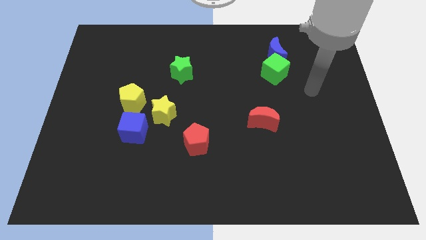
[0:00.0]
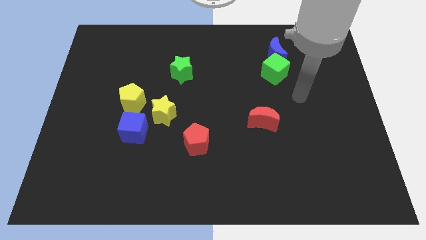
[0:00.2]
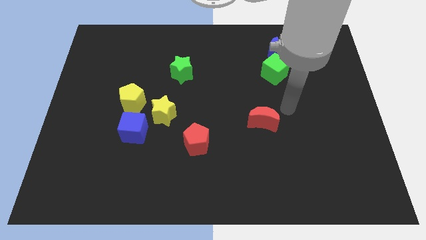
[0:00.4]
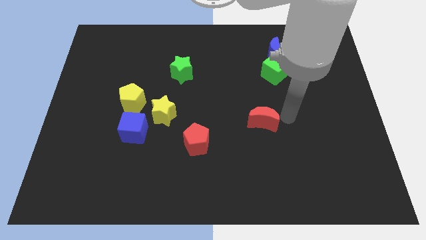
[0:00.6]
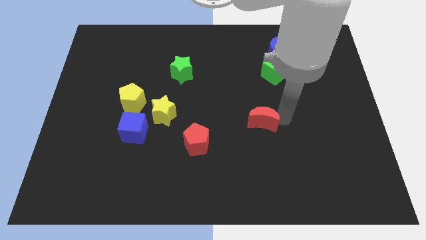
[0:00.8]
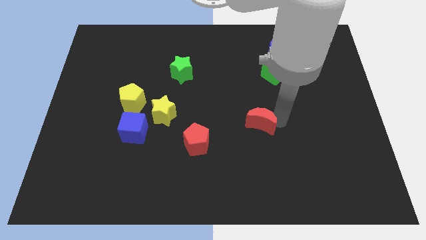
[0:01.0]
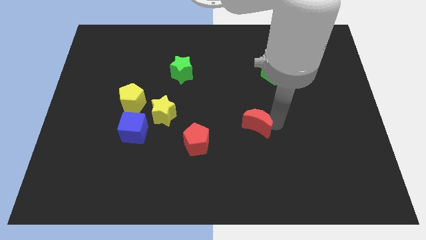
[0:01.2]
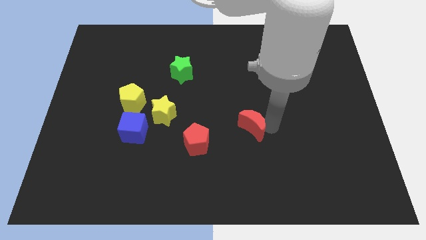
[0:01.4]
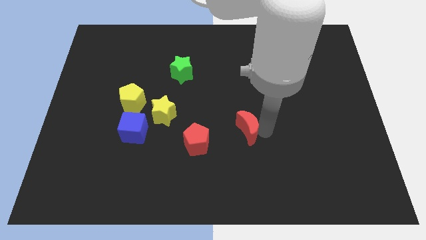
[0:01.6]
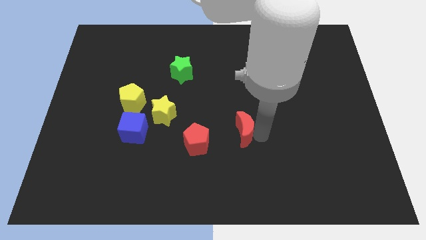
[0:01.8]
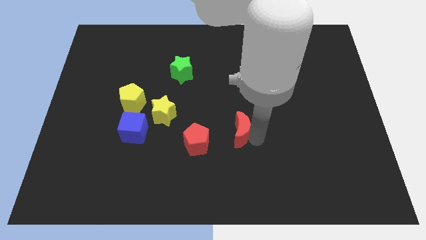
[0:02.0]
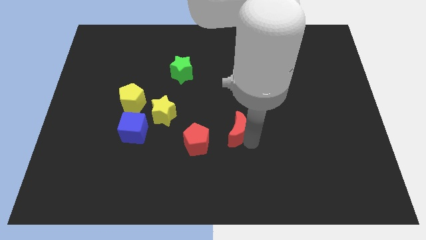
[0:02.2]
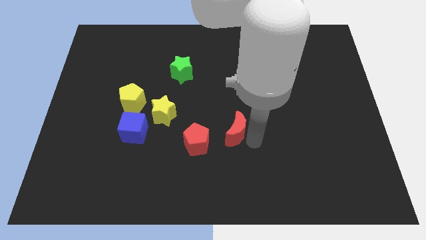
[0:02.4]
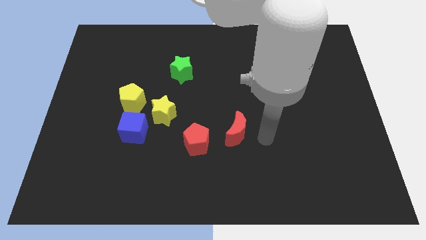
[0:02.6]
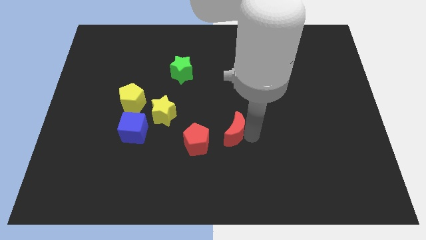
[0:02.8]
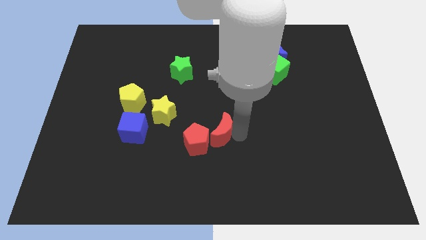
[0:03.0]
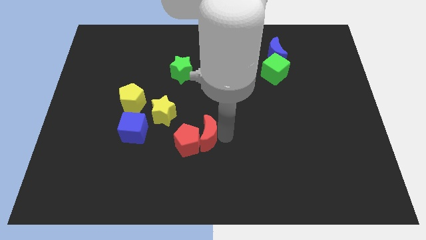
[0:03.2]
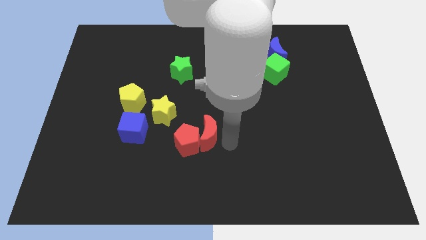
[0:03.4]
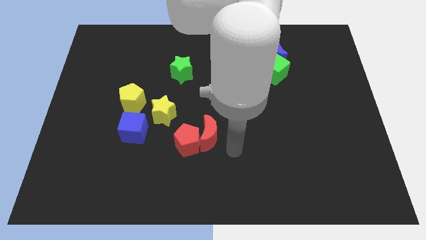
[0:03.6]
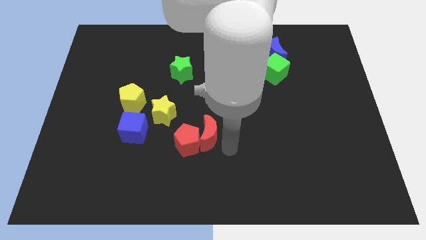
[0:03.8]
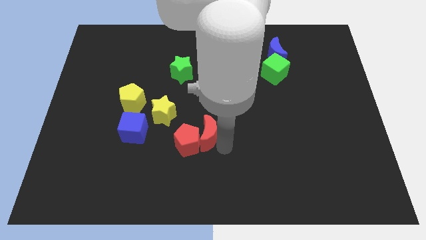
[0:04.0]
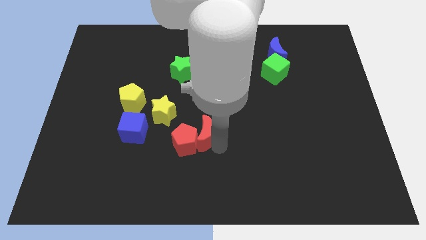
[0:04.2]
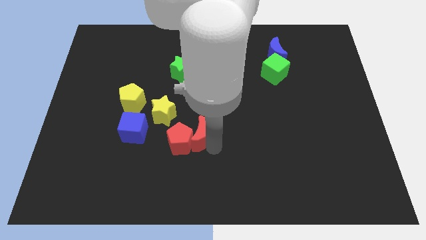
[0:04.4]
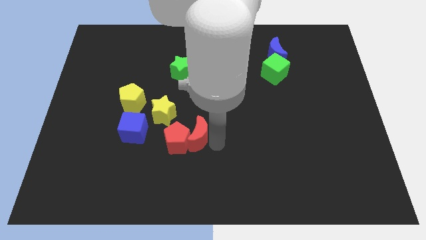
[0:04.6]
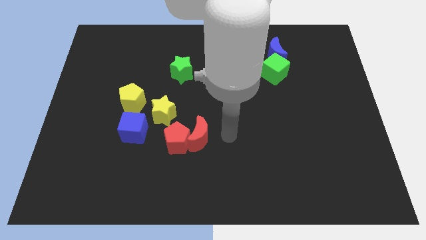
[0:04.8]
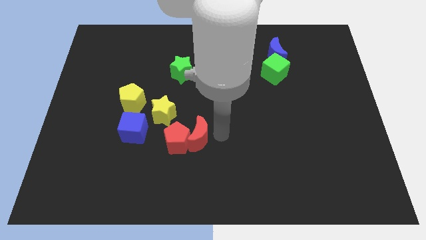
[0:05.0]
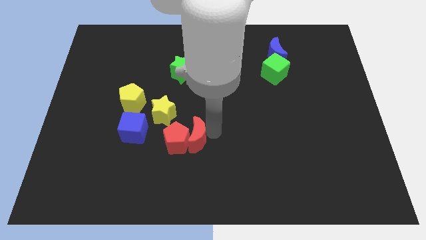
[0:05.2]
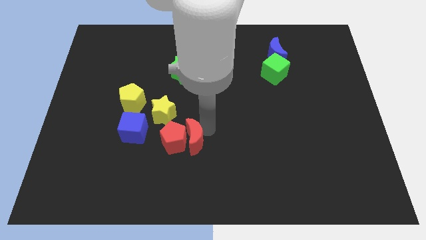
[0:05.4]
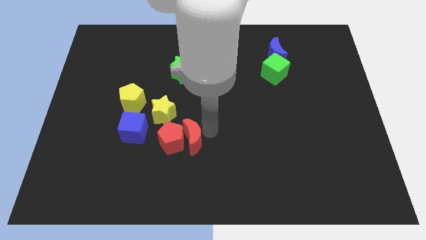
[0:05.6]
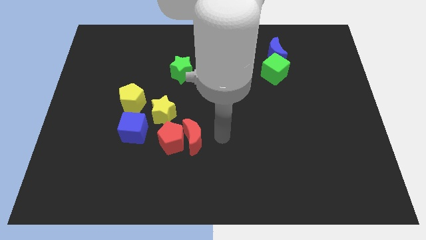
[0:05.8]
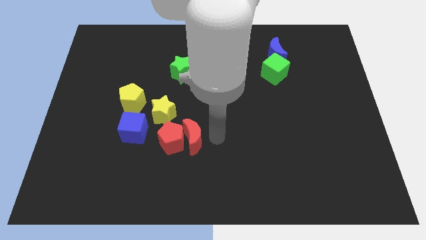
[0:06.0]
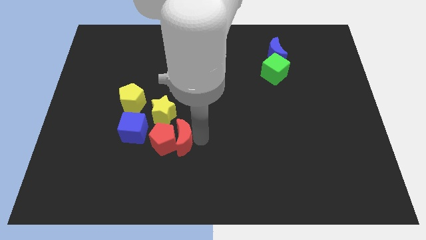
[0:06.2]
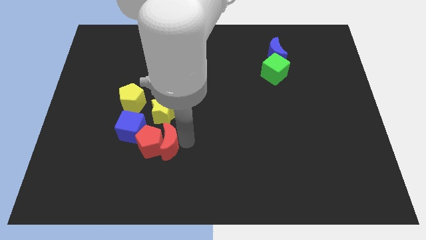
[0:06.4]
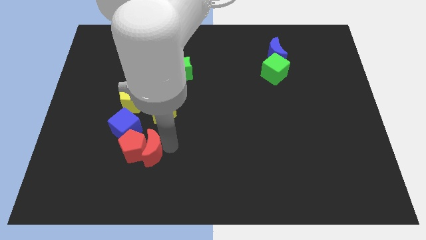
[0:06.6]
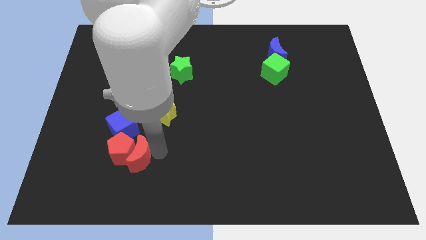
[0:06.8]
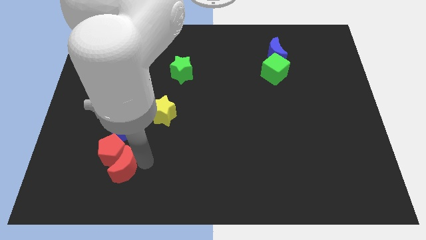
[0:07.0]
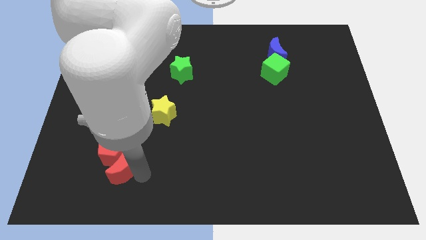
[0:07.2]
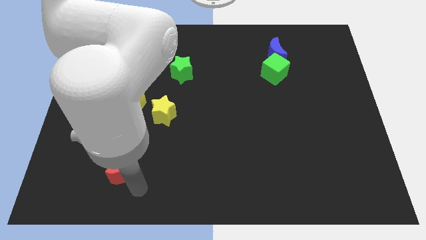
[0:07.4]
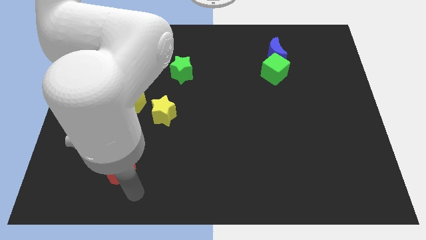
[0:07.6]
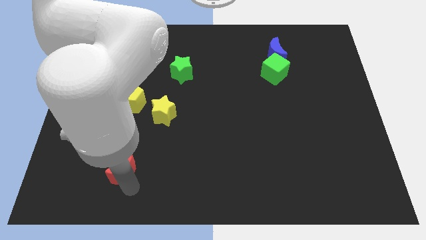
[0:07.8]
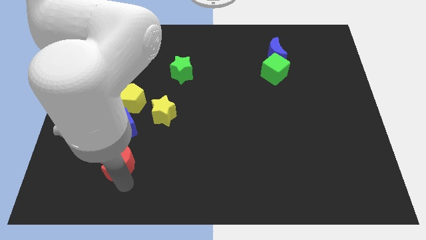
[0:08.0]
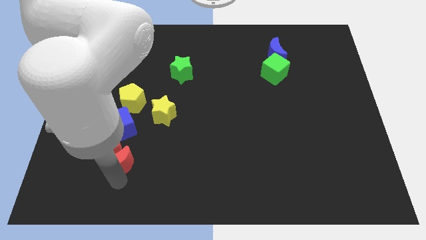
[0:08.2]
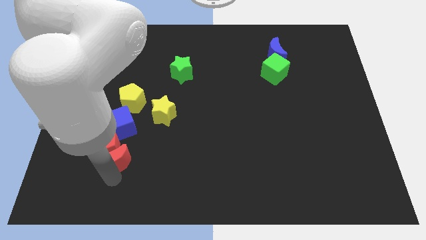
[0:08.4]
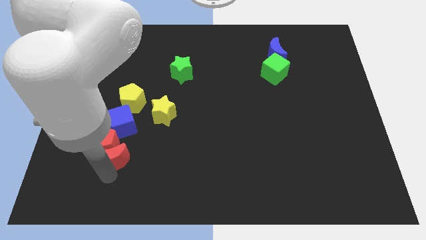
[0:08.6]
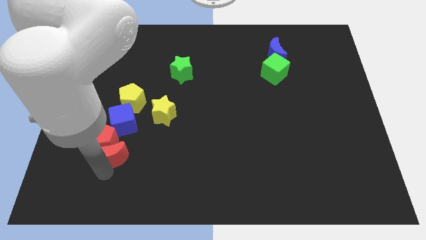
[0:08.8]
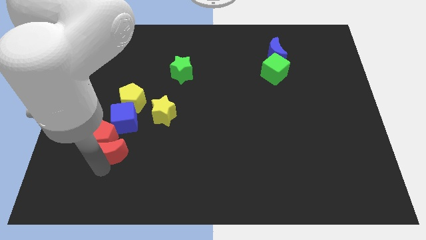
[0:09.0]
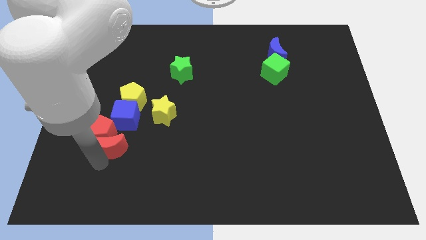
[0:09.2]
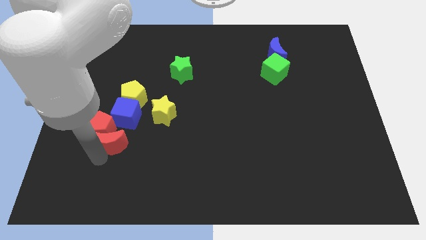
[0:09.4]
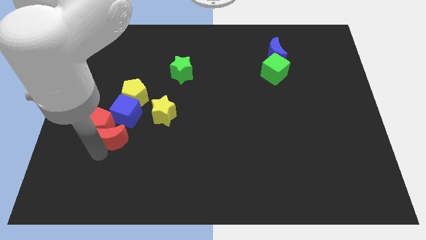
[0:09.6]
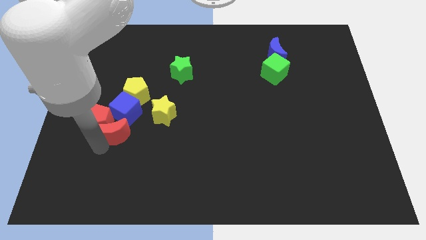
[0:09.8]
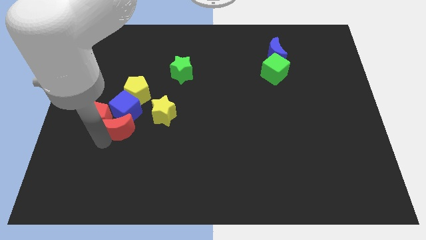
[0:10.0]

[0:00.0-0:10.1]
put the red moon to the left side of the yellow star

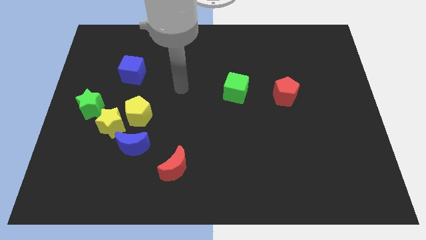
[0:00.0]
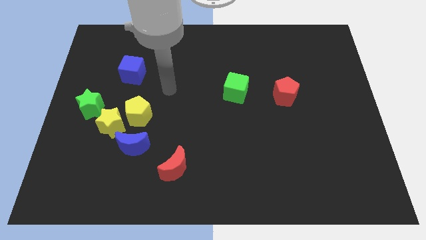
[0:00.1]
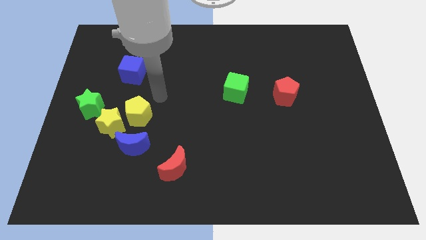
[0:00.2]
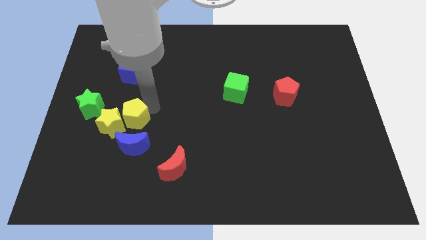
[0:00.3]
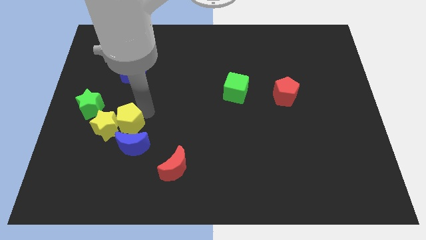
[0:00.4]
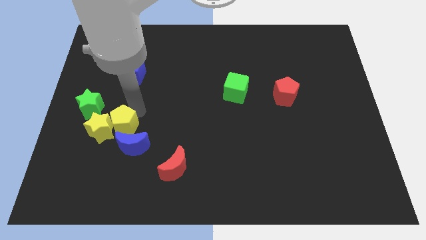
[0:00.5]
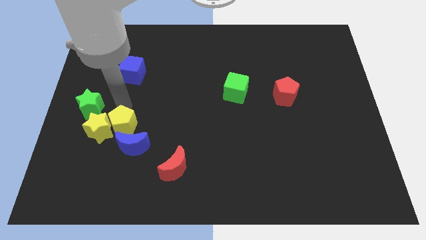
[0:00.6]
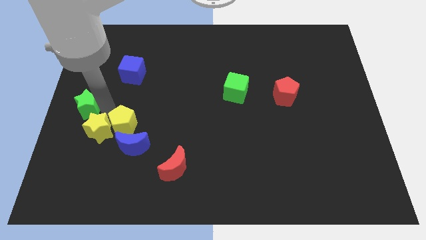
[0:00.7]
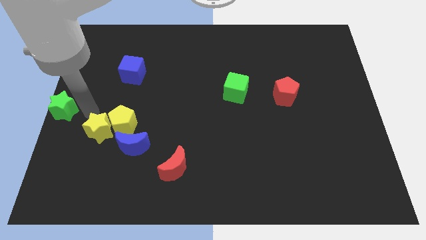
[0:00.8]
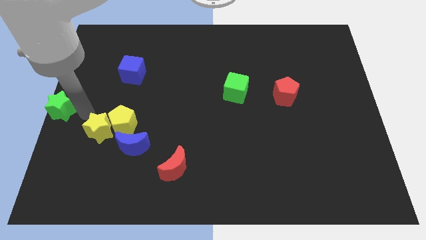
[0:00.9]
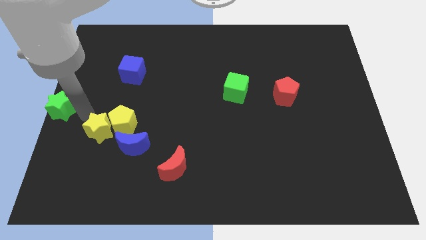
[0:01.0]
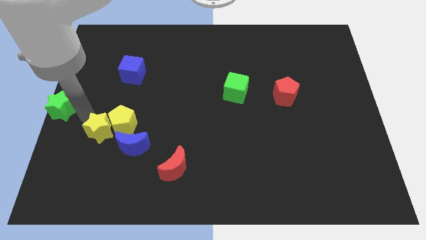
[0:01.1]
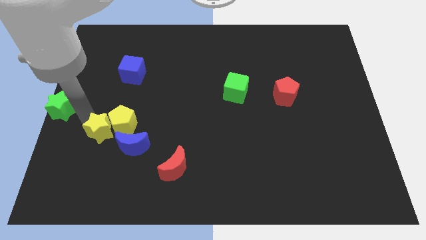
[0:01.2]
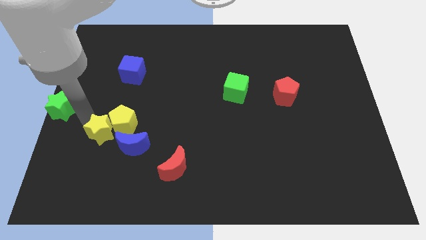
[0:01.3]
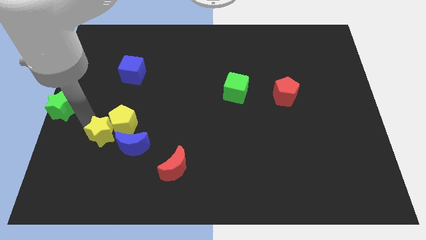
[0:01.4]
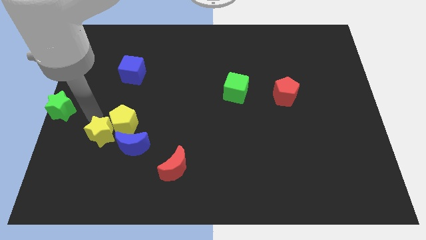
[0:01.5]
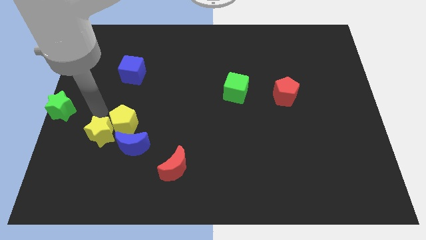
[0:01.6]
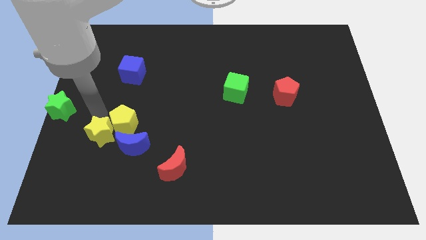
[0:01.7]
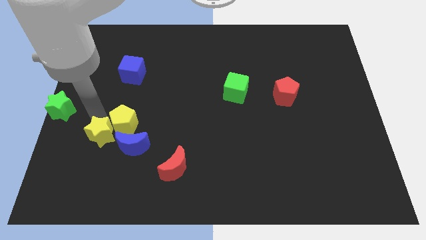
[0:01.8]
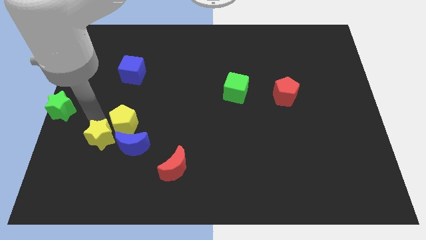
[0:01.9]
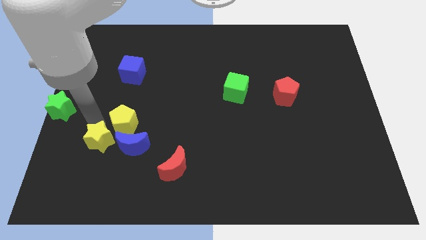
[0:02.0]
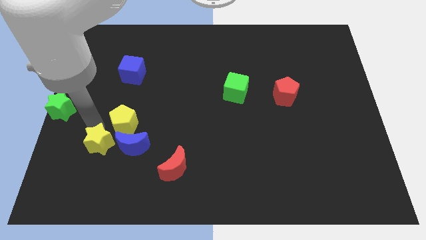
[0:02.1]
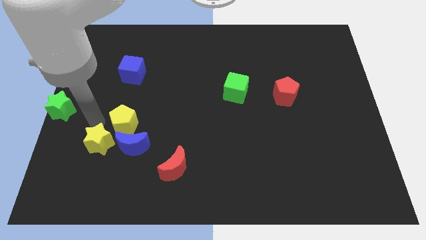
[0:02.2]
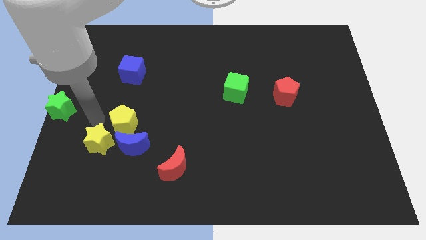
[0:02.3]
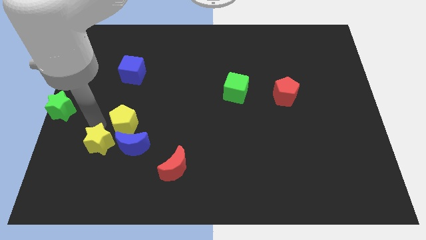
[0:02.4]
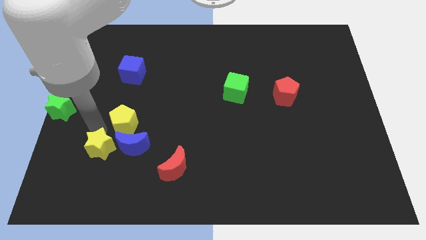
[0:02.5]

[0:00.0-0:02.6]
push the yellow star to the bottom left of the blue moon

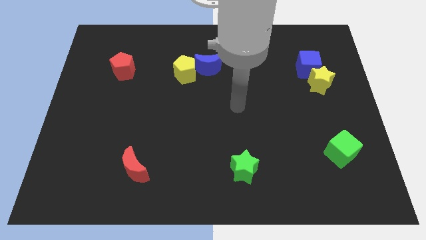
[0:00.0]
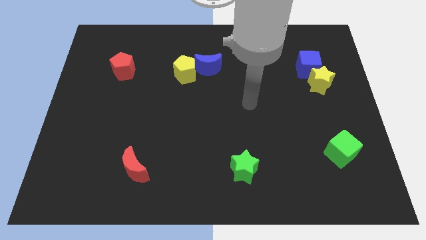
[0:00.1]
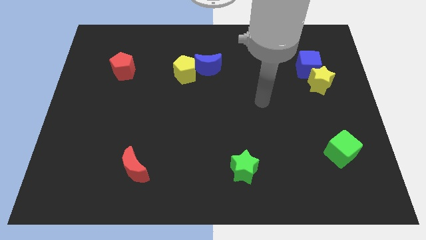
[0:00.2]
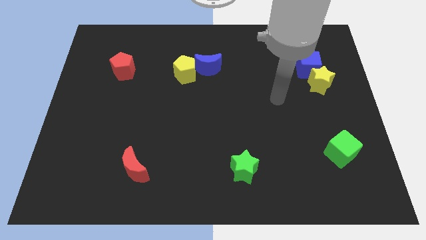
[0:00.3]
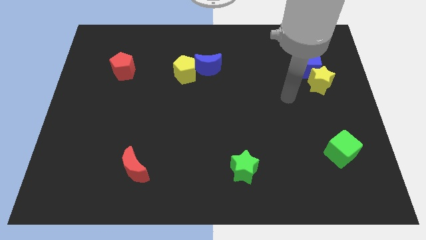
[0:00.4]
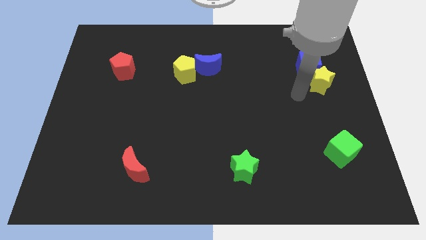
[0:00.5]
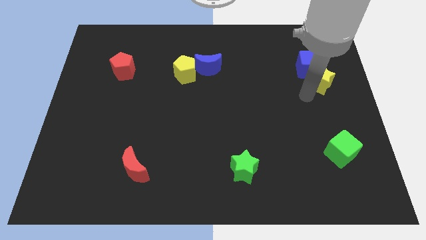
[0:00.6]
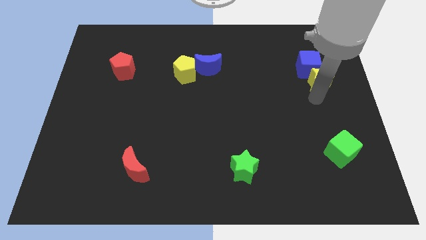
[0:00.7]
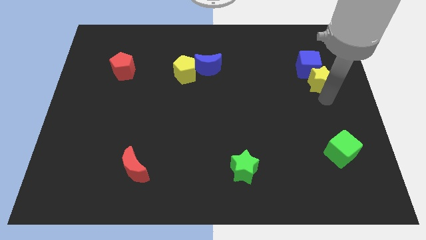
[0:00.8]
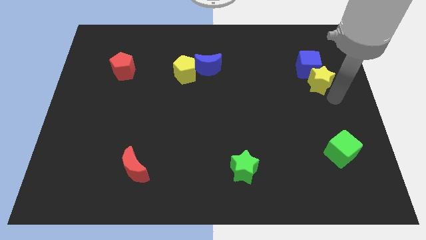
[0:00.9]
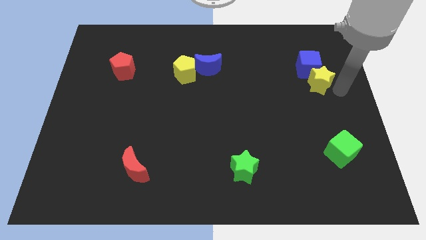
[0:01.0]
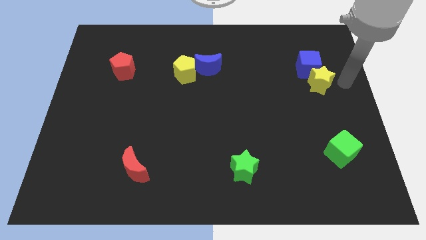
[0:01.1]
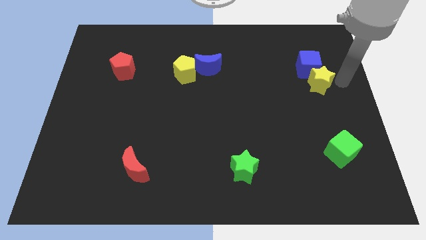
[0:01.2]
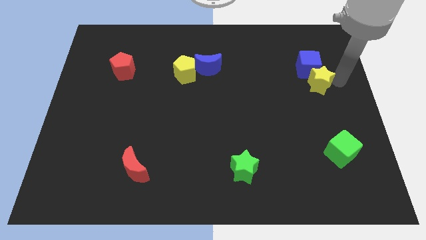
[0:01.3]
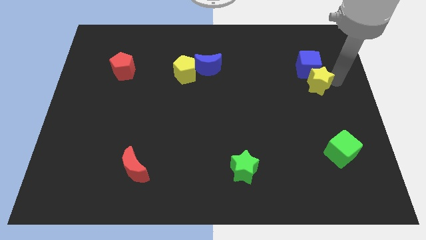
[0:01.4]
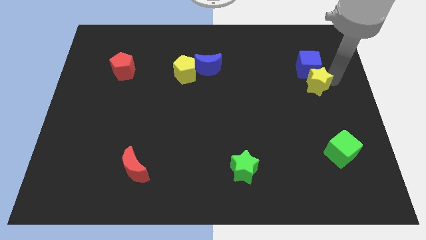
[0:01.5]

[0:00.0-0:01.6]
slide the yellow star to the bottom left of the blue cube
